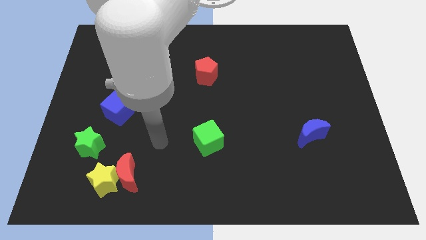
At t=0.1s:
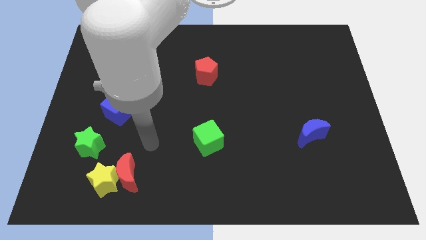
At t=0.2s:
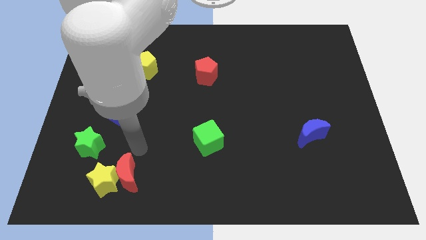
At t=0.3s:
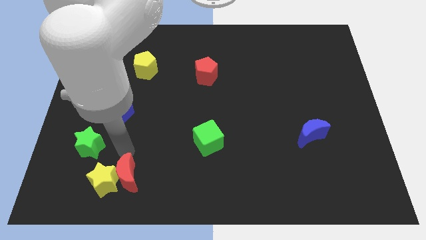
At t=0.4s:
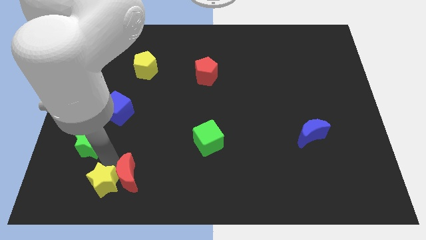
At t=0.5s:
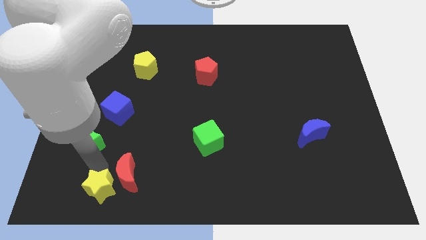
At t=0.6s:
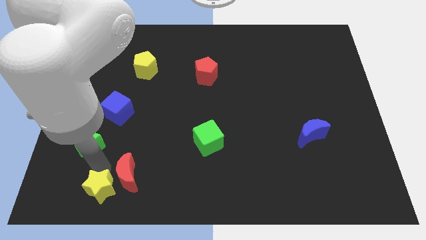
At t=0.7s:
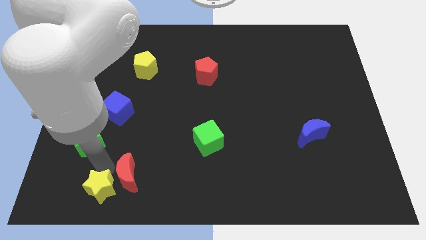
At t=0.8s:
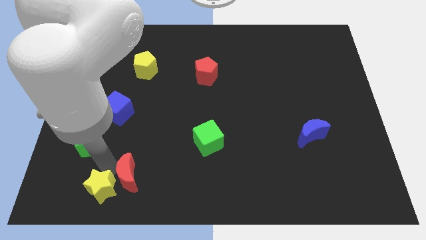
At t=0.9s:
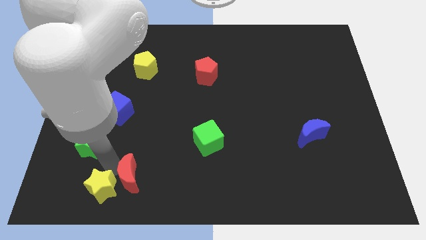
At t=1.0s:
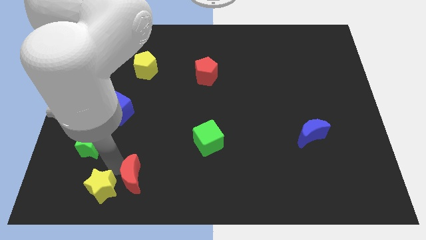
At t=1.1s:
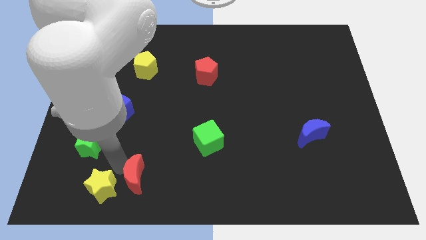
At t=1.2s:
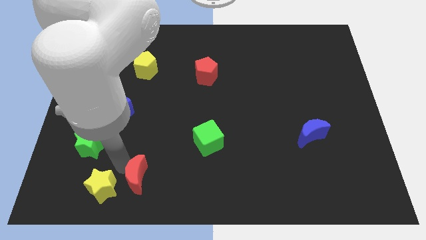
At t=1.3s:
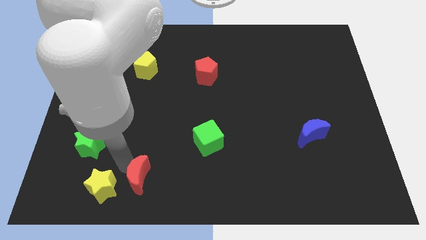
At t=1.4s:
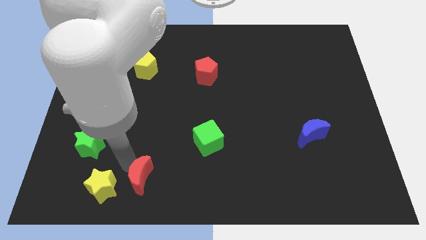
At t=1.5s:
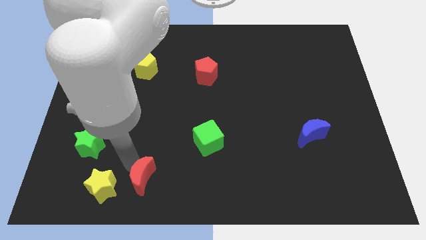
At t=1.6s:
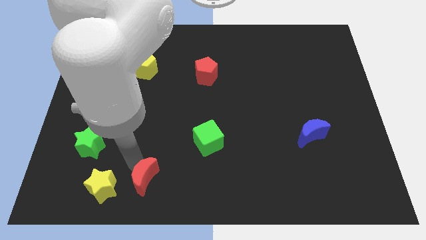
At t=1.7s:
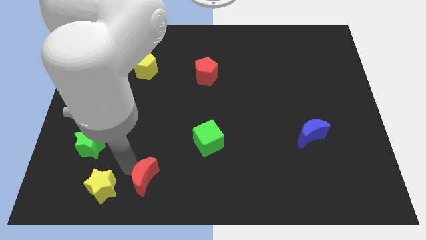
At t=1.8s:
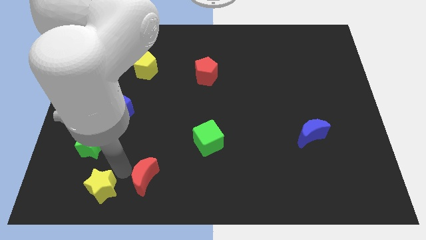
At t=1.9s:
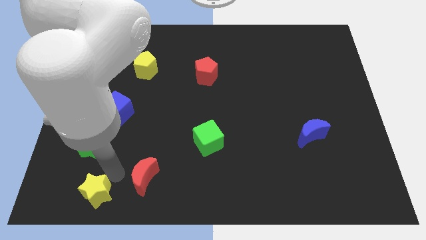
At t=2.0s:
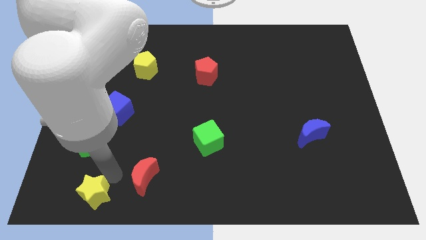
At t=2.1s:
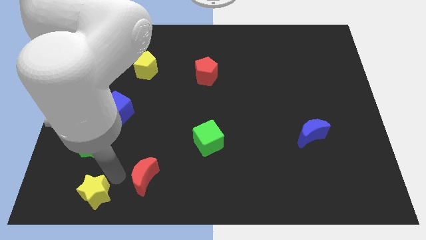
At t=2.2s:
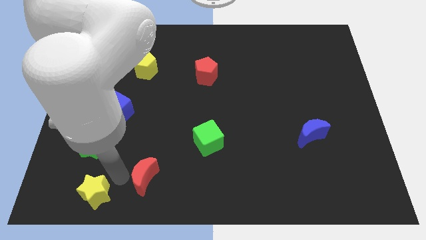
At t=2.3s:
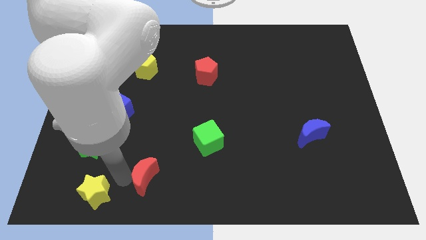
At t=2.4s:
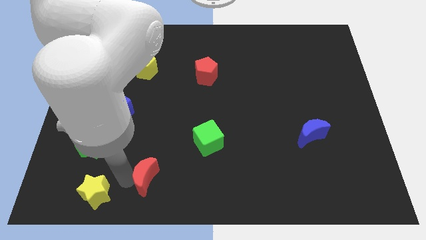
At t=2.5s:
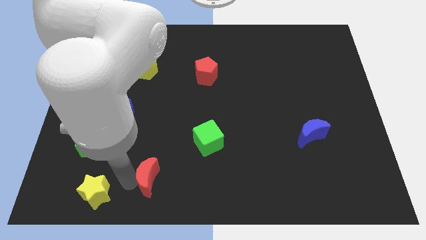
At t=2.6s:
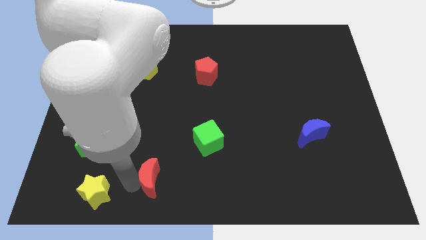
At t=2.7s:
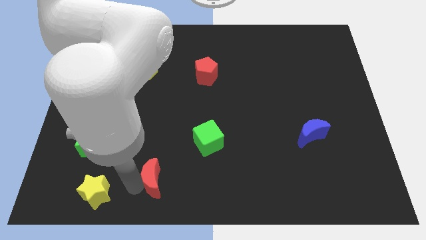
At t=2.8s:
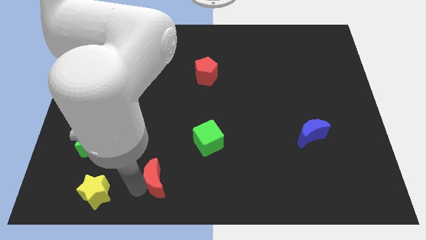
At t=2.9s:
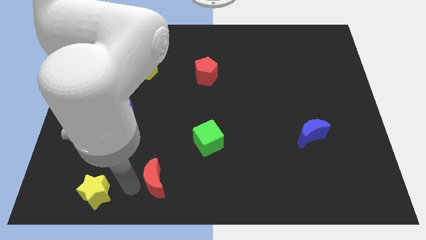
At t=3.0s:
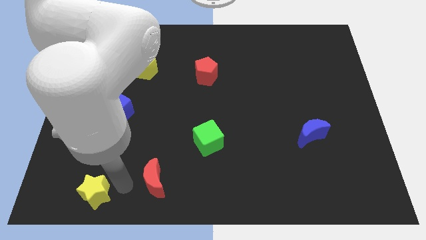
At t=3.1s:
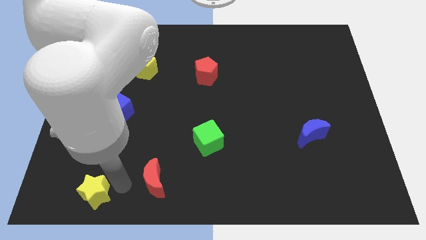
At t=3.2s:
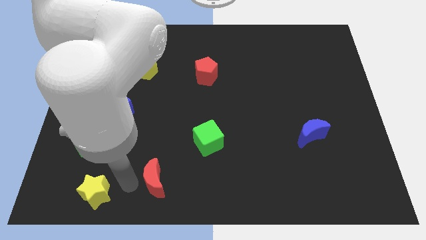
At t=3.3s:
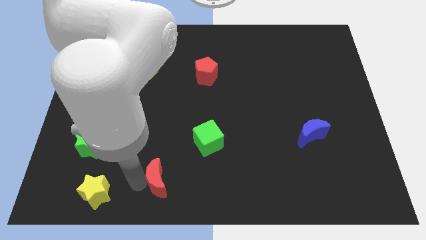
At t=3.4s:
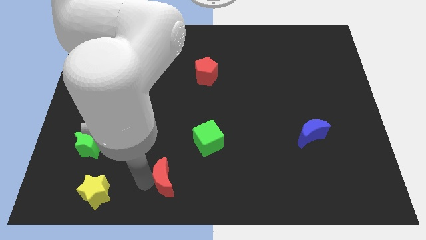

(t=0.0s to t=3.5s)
slightly slide the red moon right

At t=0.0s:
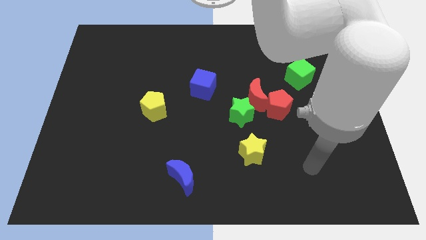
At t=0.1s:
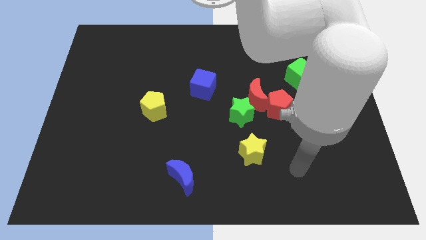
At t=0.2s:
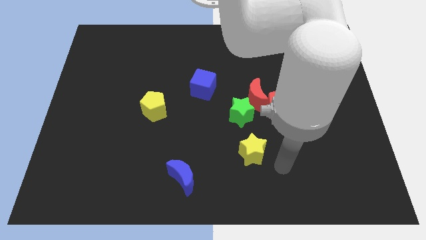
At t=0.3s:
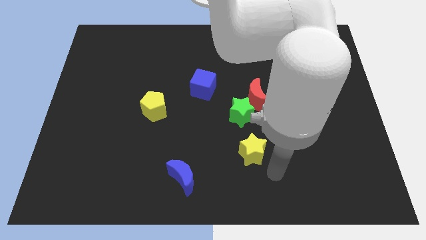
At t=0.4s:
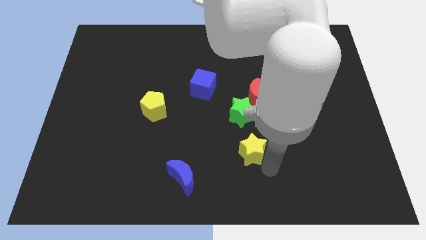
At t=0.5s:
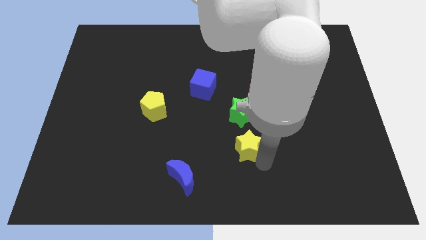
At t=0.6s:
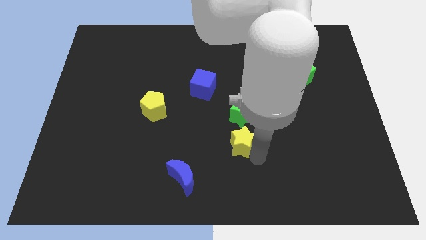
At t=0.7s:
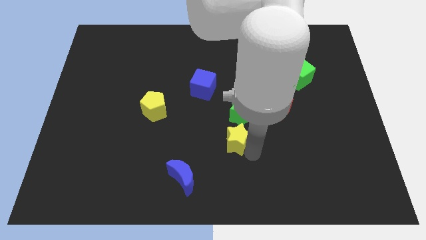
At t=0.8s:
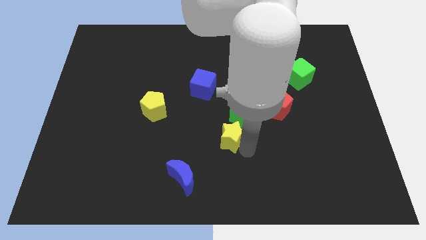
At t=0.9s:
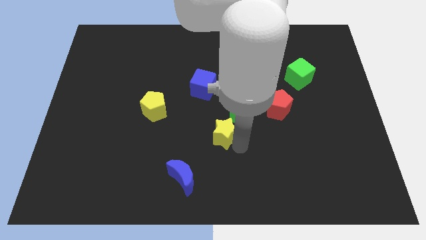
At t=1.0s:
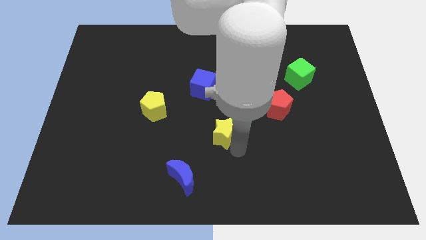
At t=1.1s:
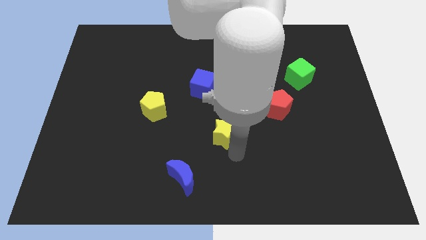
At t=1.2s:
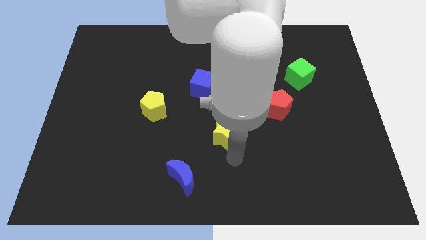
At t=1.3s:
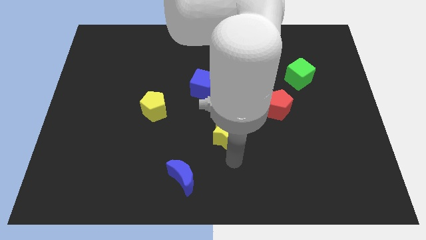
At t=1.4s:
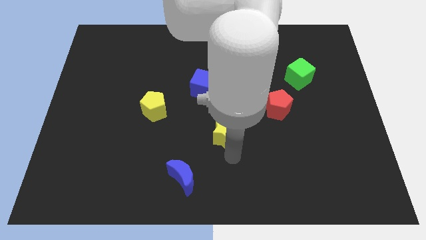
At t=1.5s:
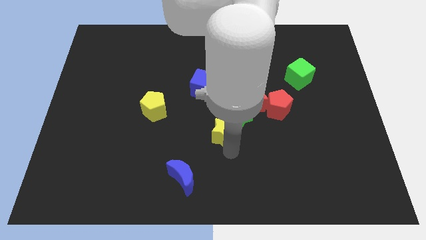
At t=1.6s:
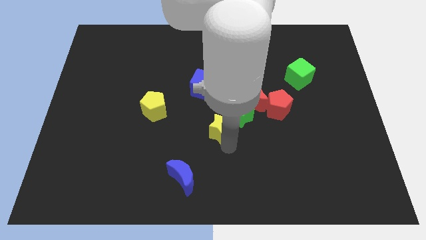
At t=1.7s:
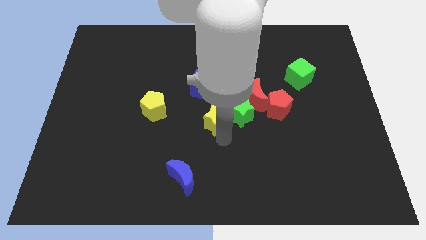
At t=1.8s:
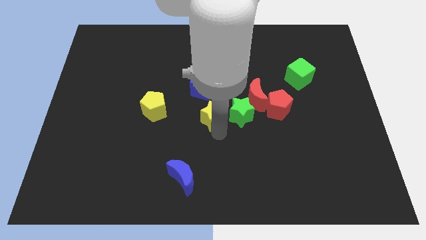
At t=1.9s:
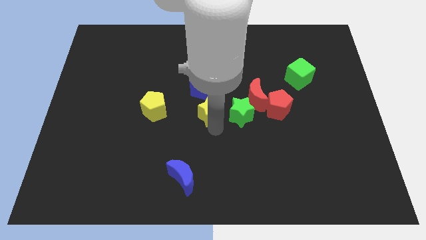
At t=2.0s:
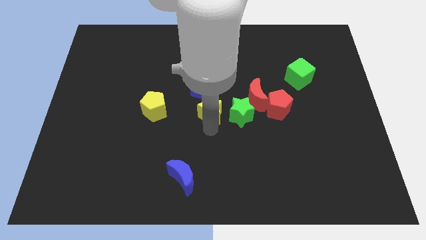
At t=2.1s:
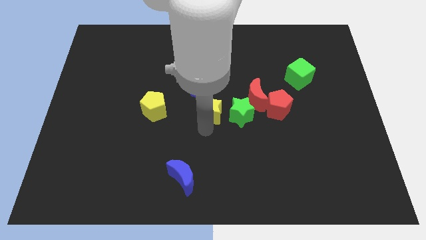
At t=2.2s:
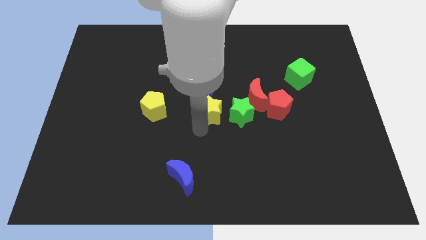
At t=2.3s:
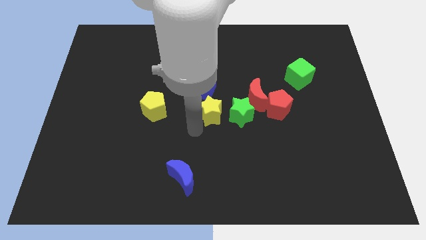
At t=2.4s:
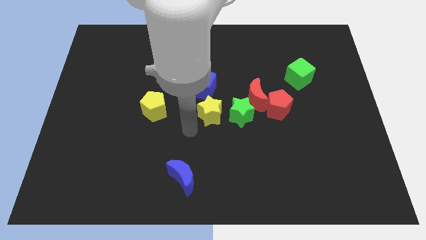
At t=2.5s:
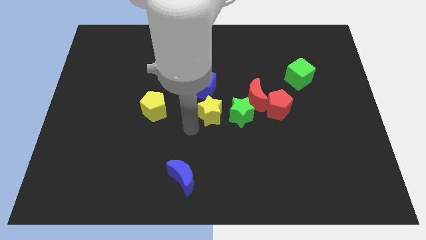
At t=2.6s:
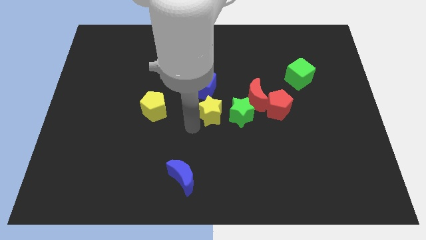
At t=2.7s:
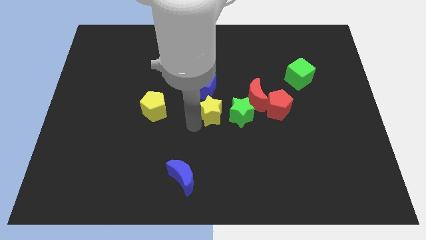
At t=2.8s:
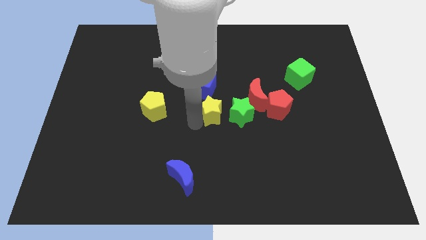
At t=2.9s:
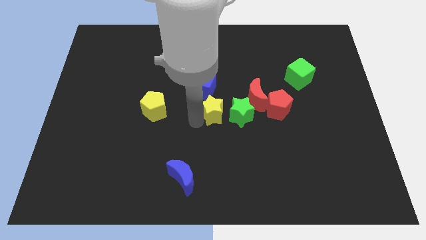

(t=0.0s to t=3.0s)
push the yellow star a little up

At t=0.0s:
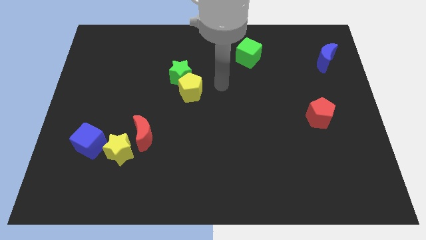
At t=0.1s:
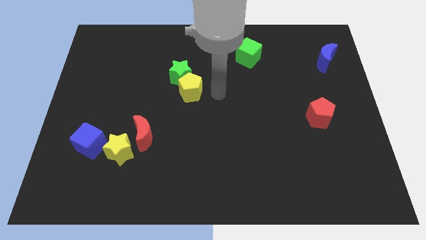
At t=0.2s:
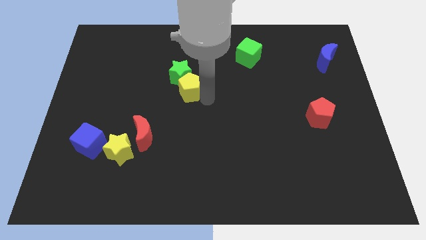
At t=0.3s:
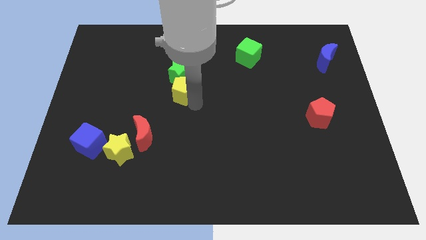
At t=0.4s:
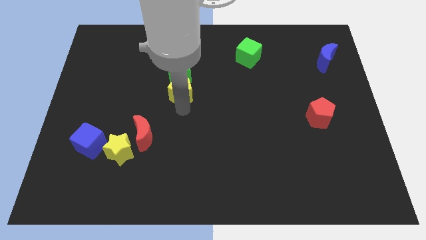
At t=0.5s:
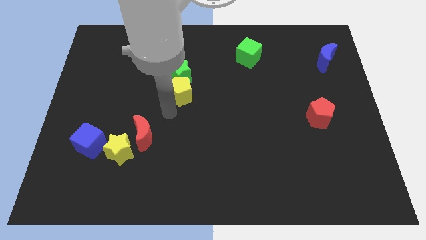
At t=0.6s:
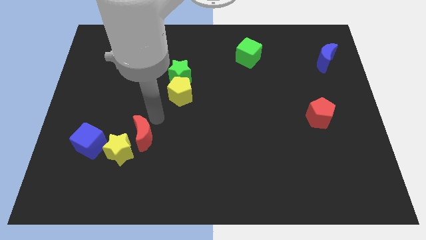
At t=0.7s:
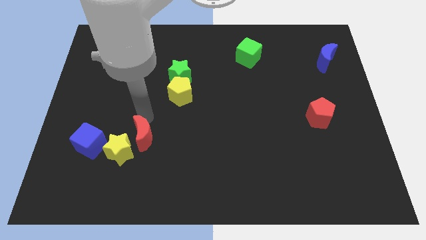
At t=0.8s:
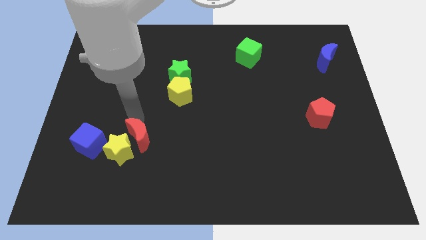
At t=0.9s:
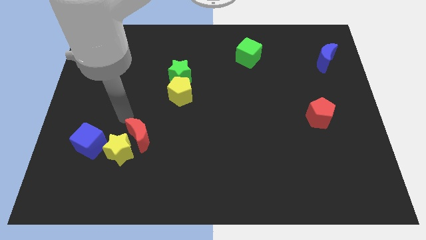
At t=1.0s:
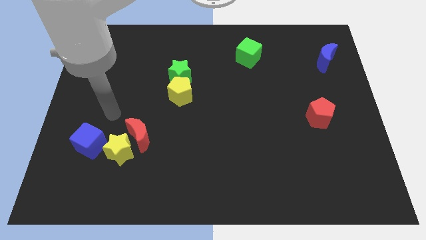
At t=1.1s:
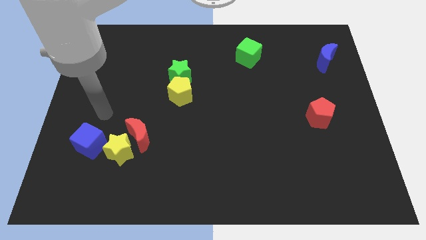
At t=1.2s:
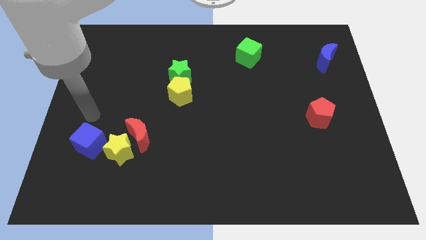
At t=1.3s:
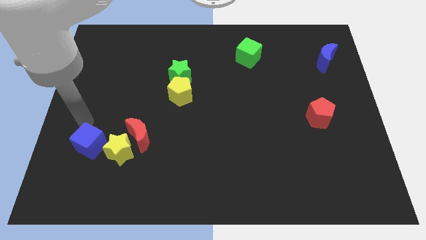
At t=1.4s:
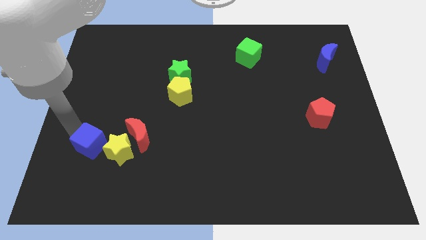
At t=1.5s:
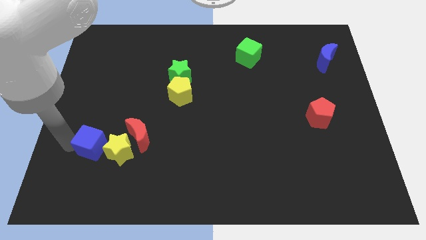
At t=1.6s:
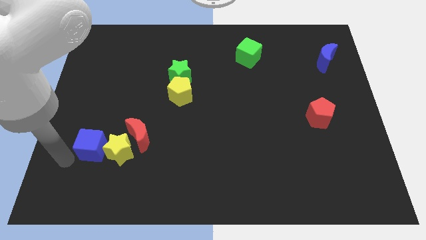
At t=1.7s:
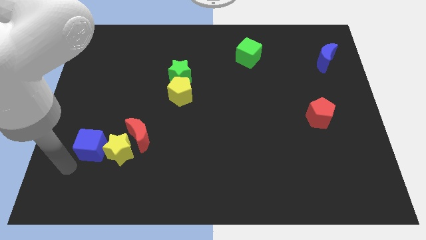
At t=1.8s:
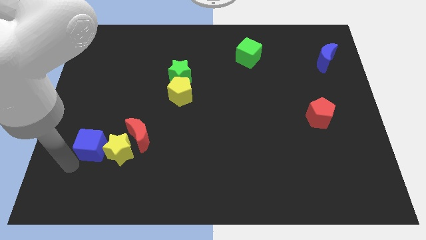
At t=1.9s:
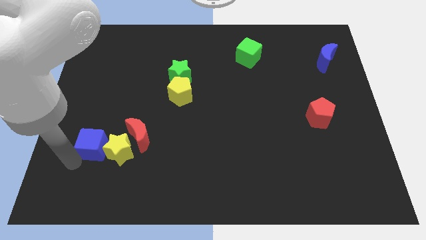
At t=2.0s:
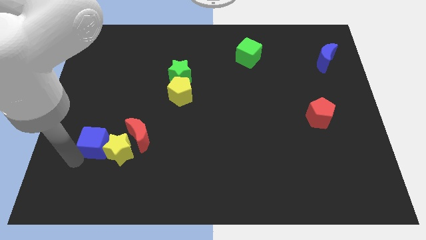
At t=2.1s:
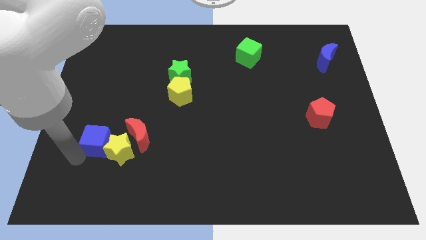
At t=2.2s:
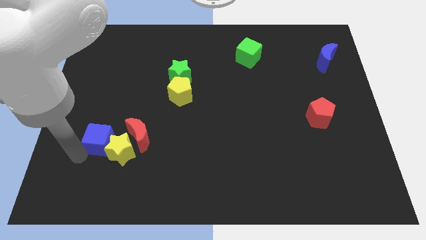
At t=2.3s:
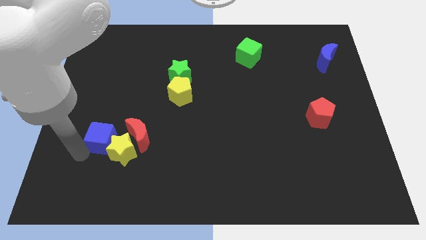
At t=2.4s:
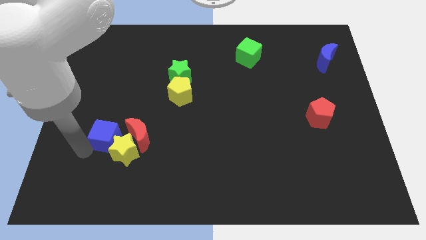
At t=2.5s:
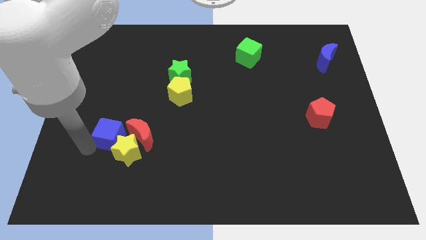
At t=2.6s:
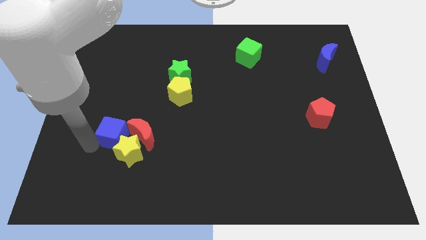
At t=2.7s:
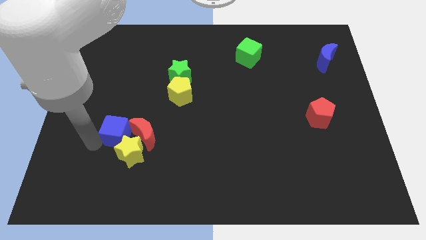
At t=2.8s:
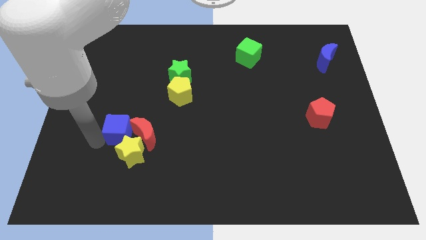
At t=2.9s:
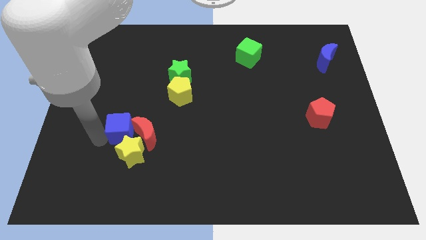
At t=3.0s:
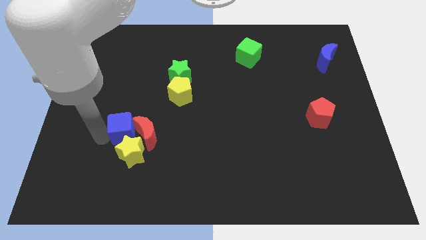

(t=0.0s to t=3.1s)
slightly slide the blue cube upwards and then right
